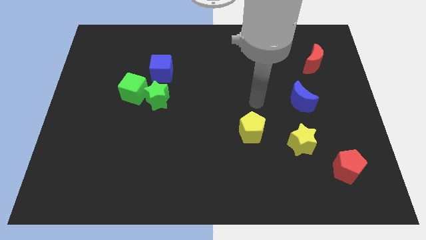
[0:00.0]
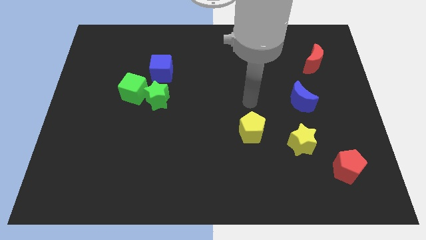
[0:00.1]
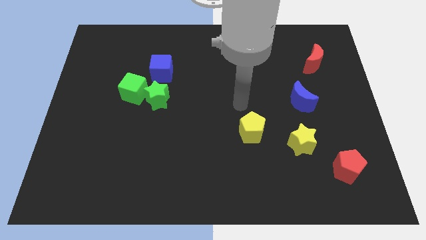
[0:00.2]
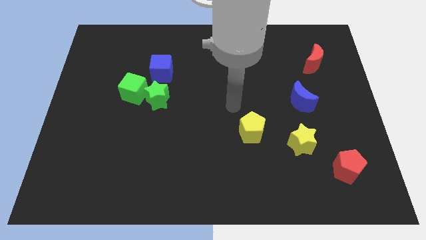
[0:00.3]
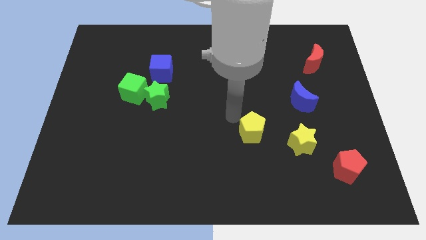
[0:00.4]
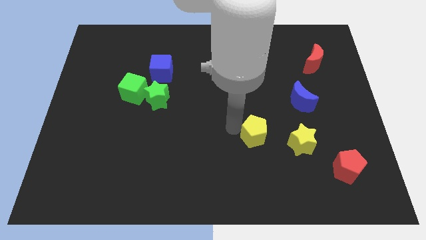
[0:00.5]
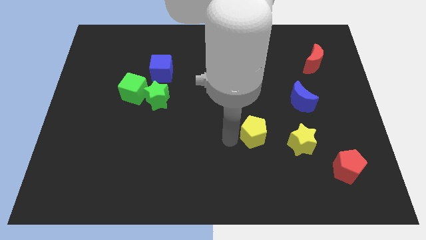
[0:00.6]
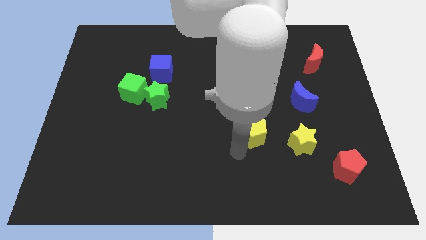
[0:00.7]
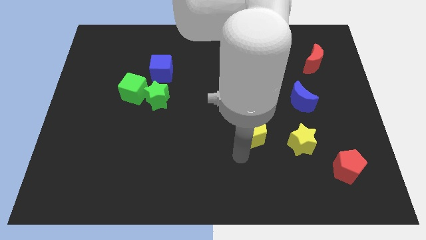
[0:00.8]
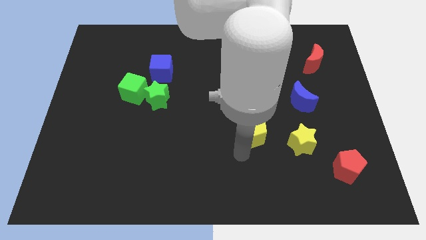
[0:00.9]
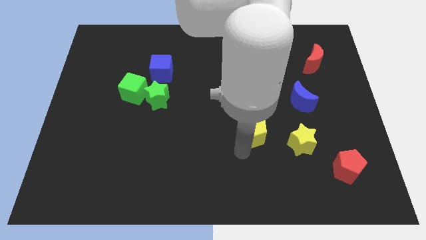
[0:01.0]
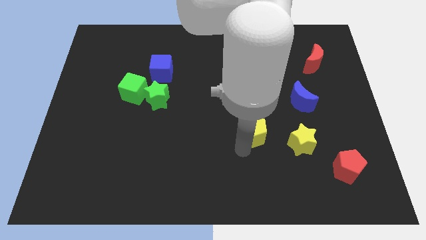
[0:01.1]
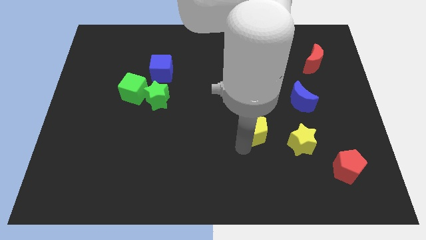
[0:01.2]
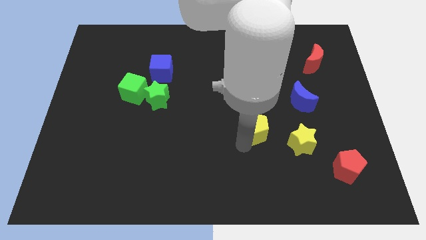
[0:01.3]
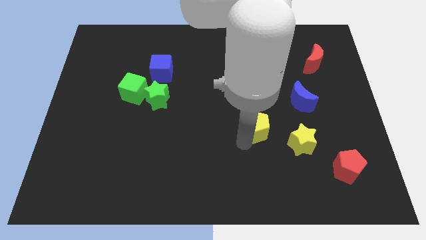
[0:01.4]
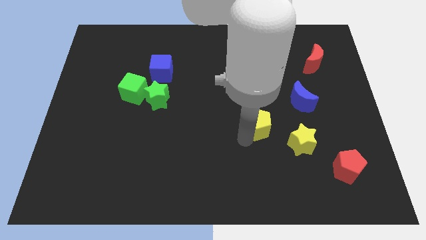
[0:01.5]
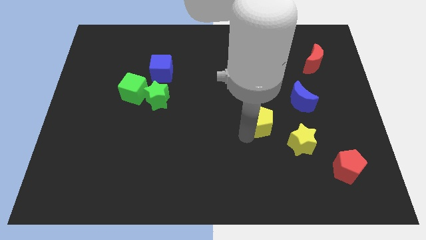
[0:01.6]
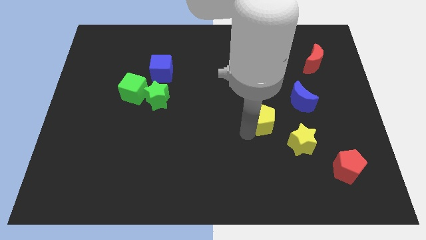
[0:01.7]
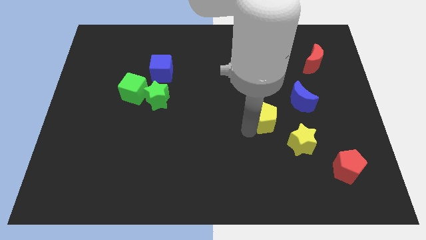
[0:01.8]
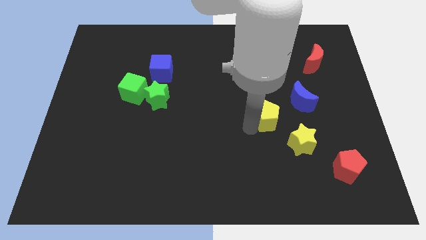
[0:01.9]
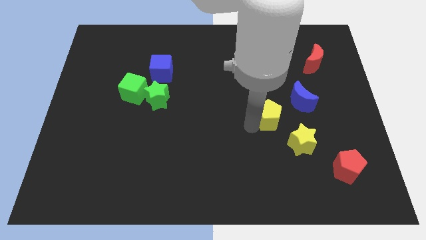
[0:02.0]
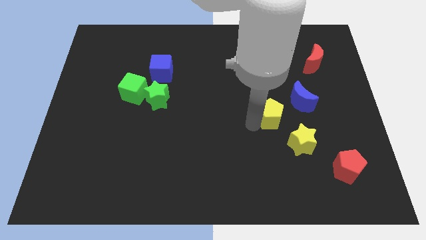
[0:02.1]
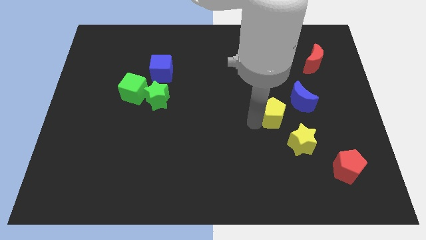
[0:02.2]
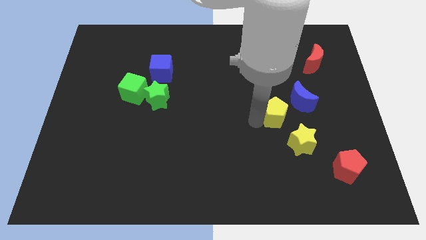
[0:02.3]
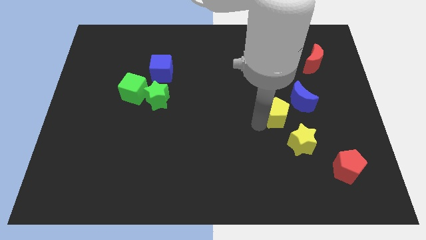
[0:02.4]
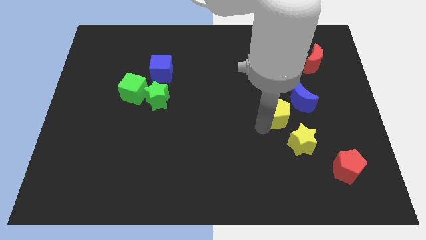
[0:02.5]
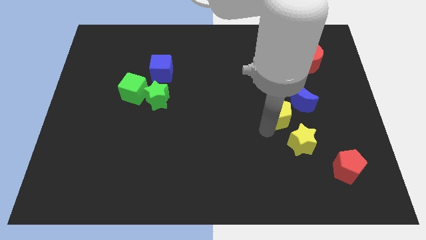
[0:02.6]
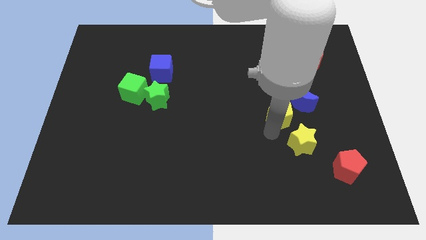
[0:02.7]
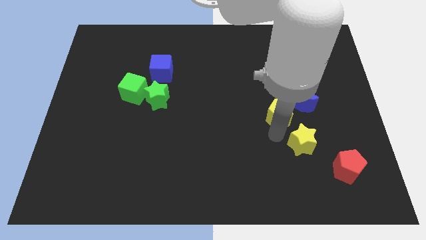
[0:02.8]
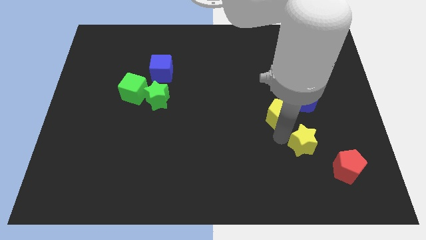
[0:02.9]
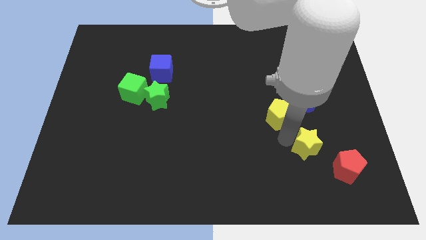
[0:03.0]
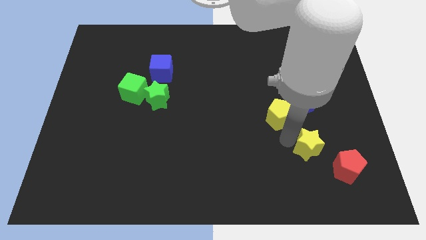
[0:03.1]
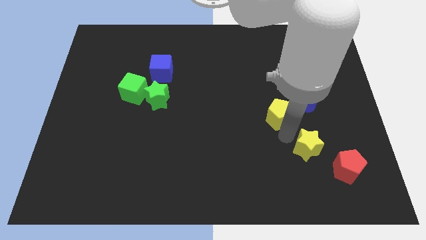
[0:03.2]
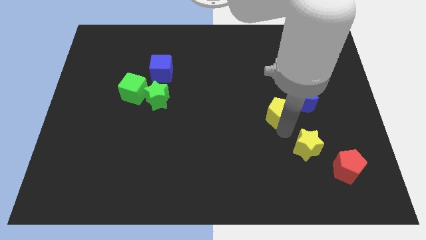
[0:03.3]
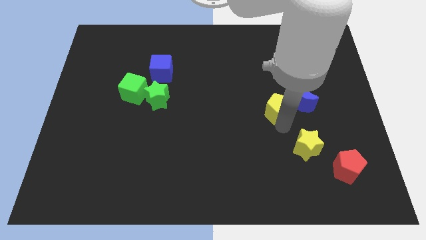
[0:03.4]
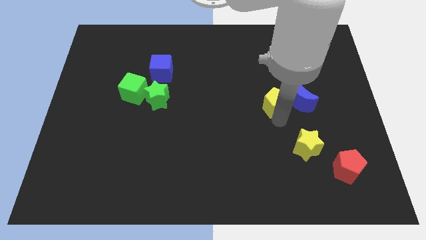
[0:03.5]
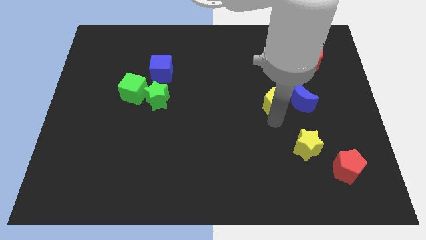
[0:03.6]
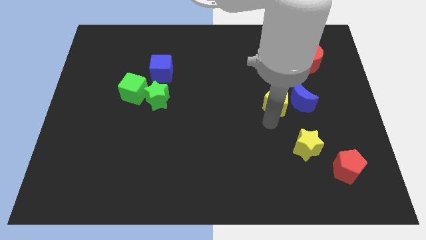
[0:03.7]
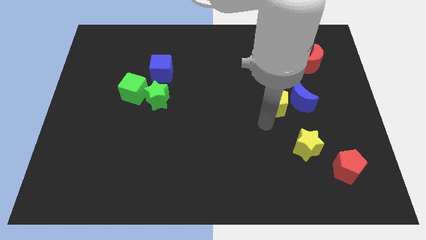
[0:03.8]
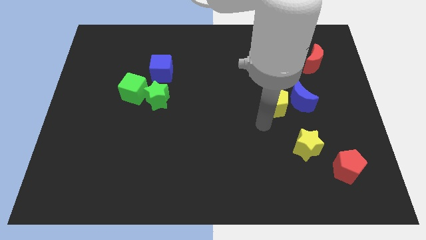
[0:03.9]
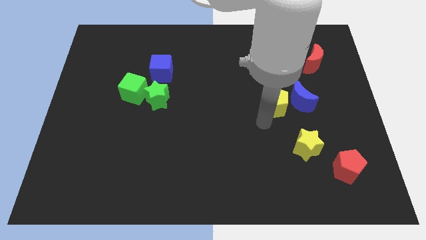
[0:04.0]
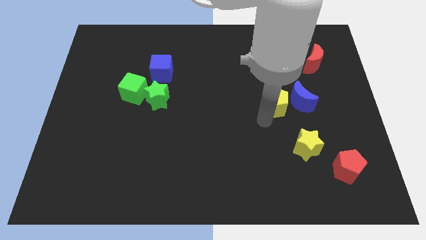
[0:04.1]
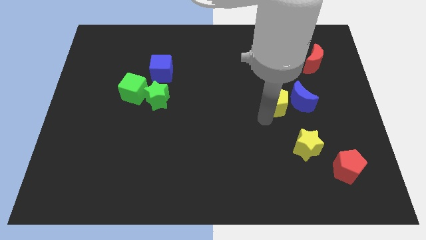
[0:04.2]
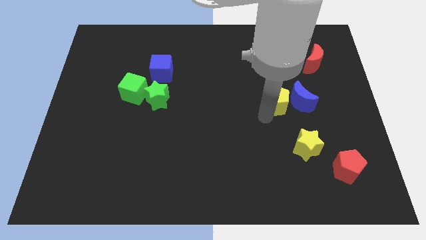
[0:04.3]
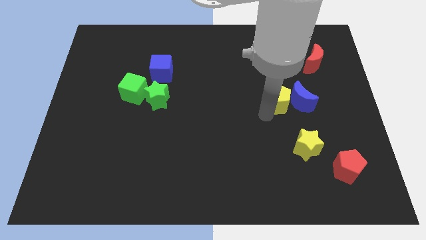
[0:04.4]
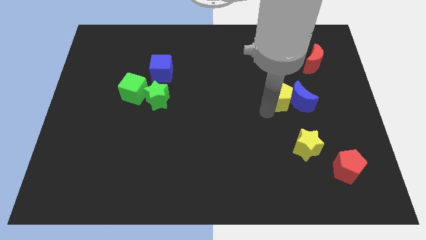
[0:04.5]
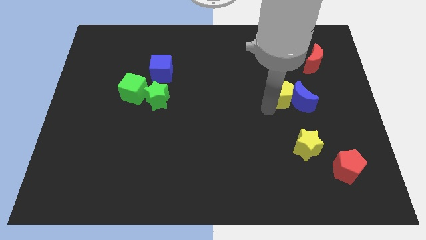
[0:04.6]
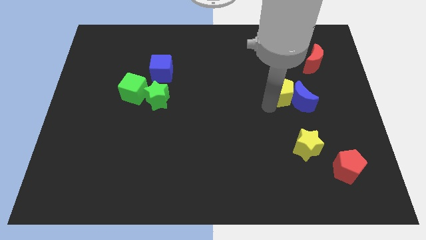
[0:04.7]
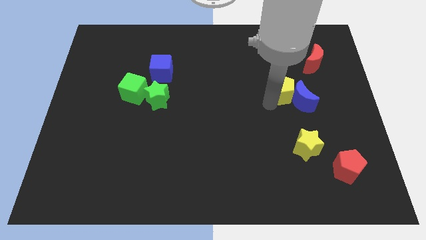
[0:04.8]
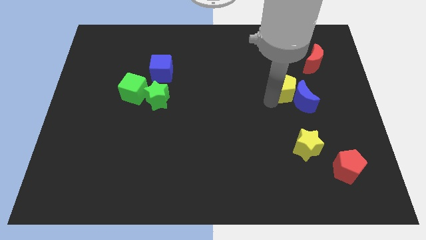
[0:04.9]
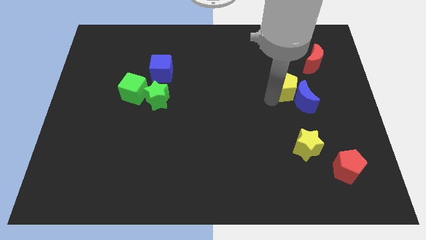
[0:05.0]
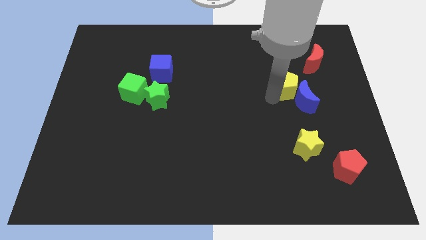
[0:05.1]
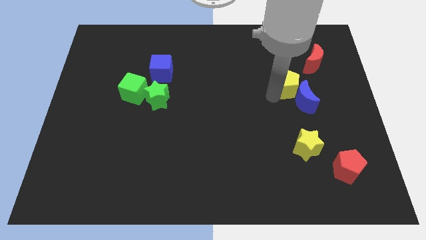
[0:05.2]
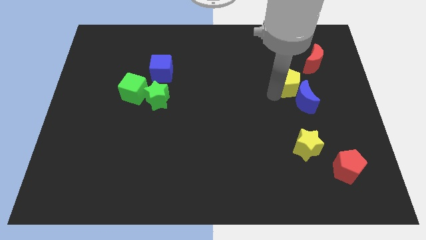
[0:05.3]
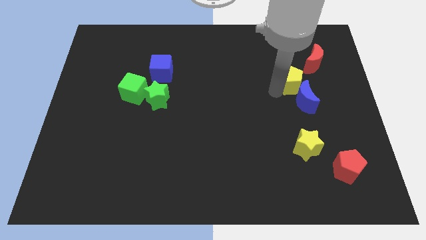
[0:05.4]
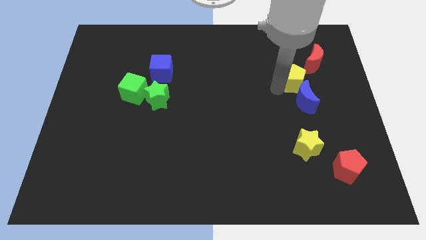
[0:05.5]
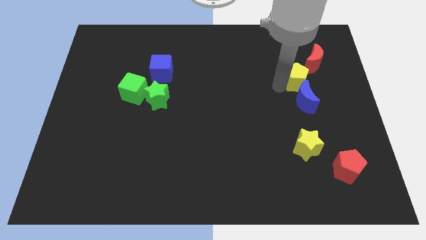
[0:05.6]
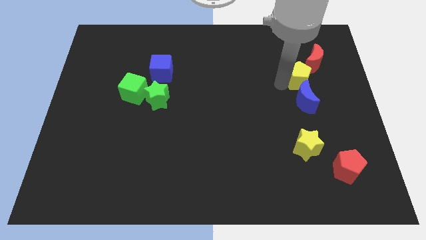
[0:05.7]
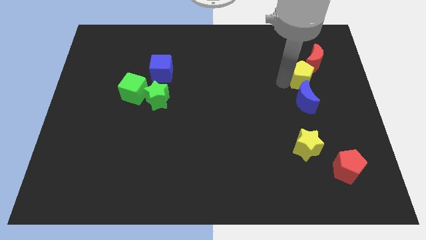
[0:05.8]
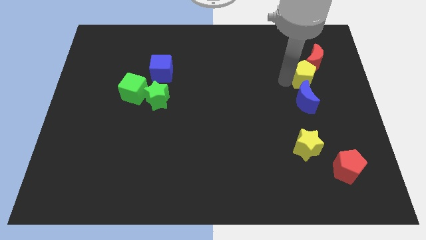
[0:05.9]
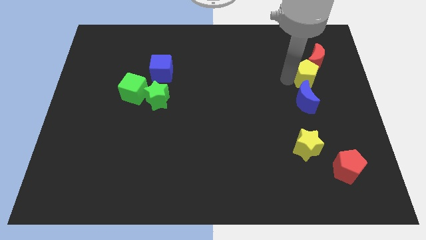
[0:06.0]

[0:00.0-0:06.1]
move the yellow pentagon towards the red moon

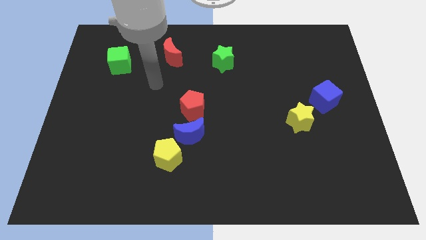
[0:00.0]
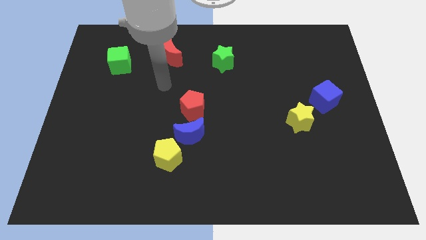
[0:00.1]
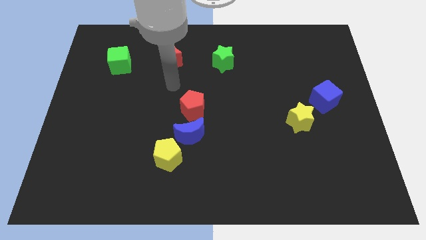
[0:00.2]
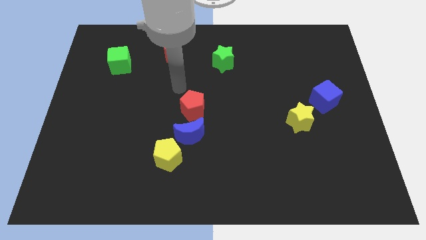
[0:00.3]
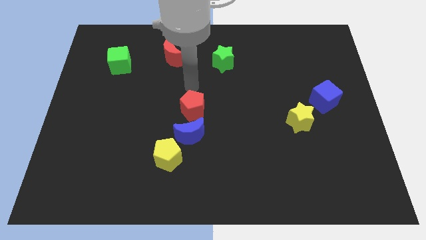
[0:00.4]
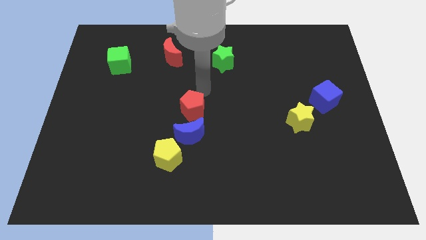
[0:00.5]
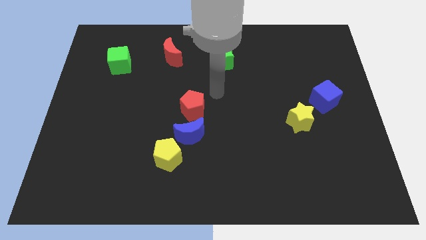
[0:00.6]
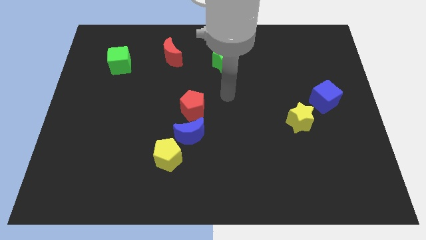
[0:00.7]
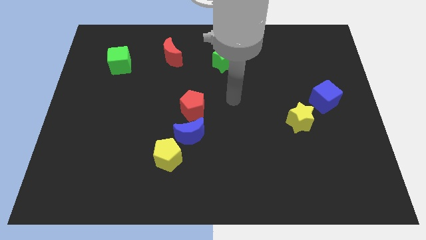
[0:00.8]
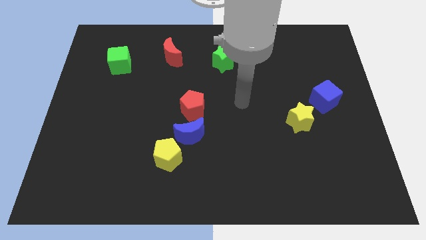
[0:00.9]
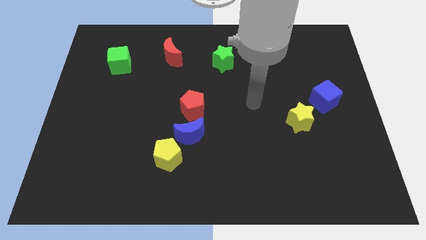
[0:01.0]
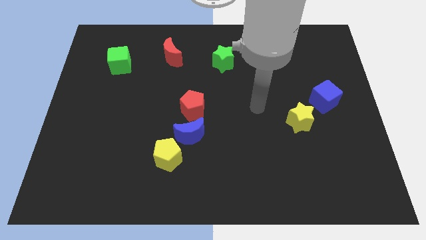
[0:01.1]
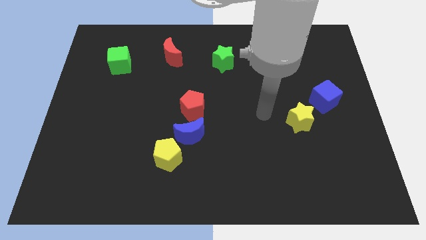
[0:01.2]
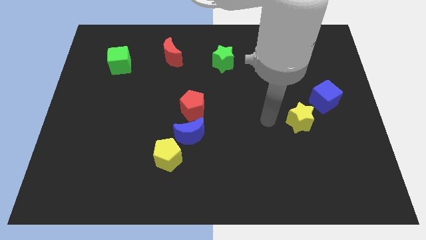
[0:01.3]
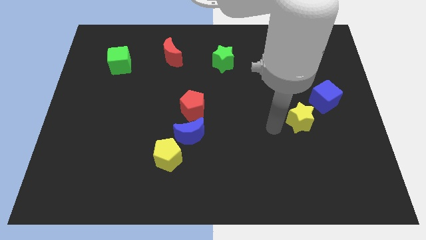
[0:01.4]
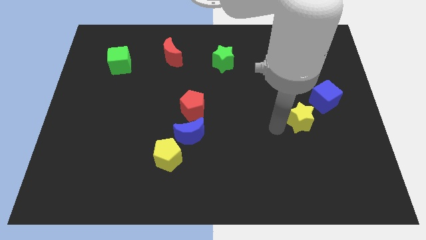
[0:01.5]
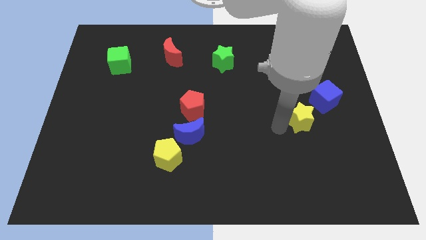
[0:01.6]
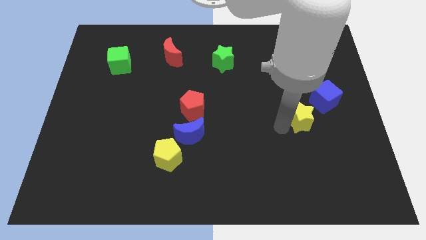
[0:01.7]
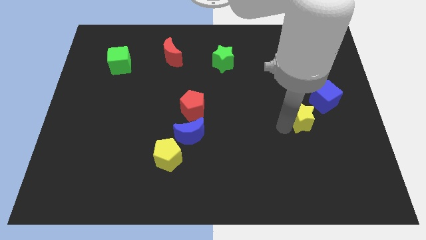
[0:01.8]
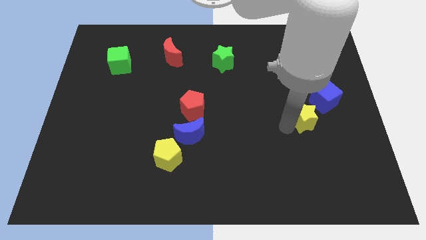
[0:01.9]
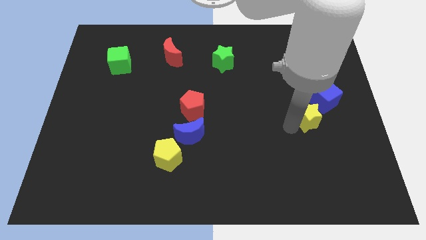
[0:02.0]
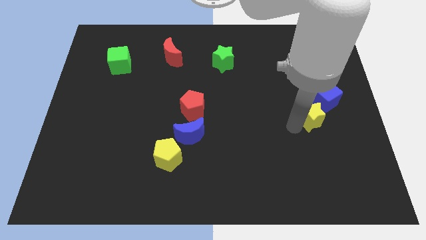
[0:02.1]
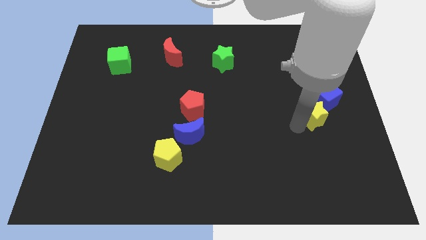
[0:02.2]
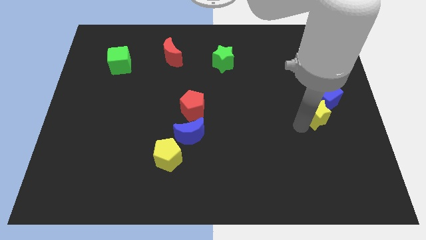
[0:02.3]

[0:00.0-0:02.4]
push the yellow star next to the blue cube
